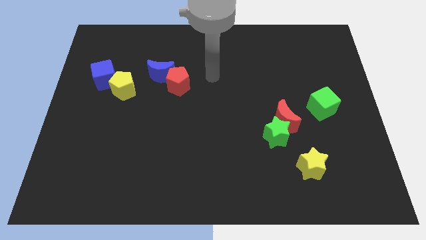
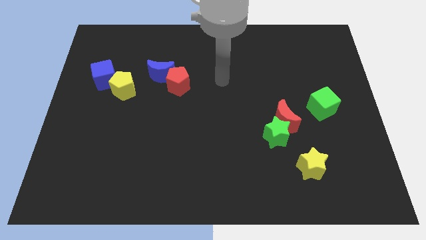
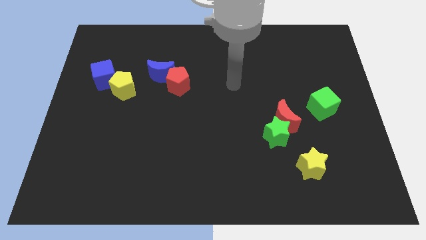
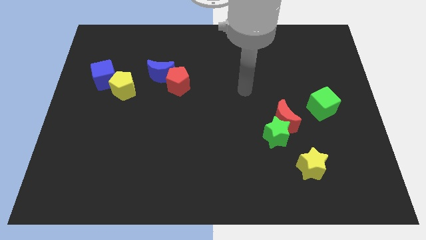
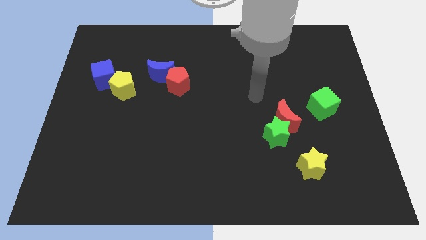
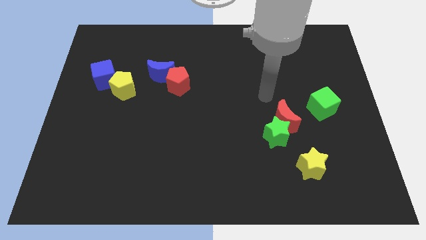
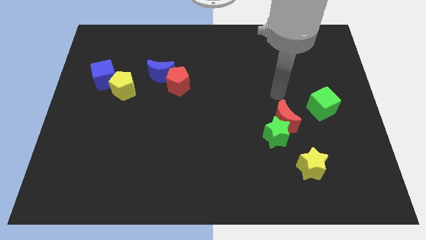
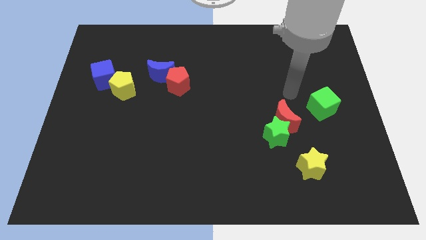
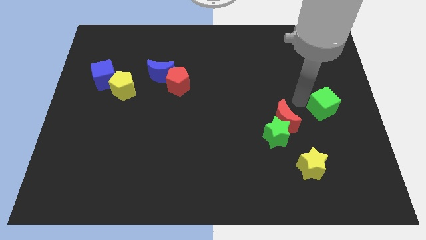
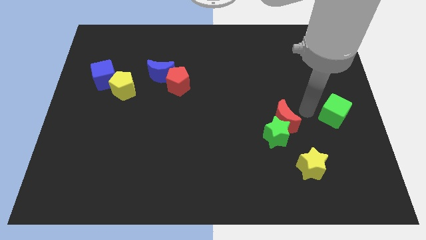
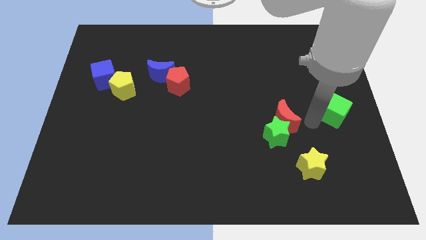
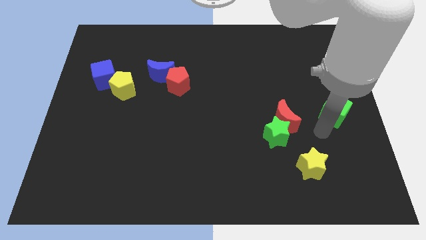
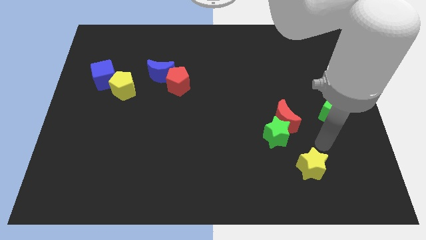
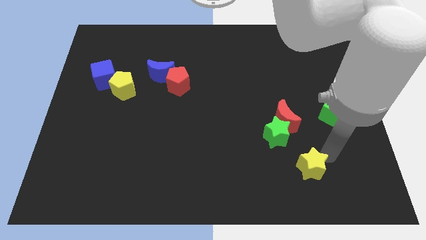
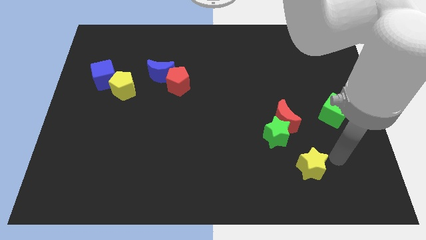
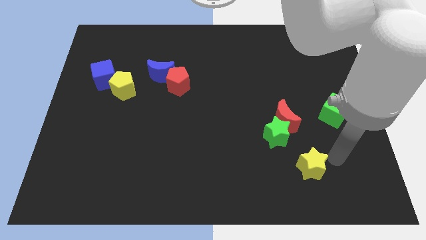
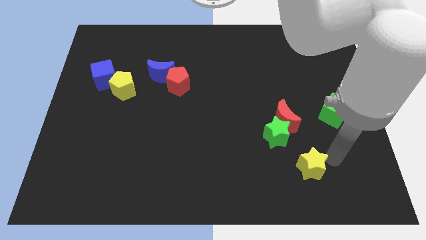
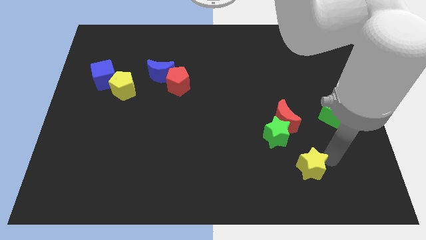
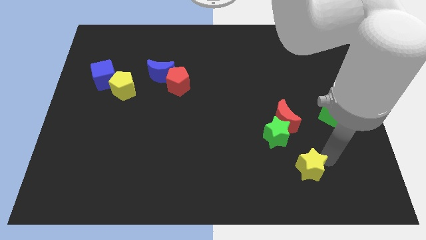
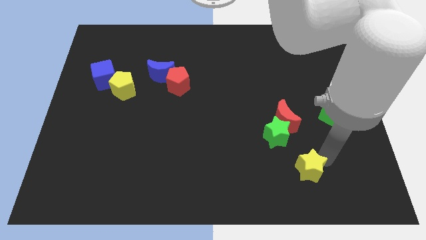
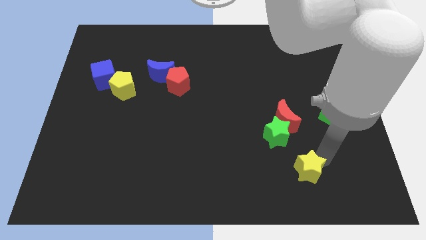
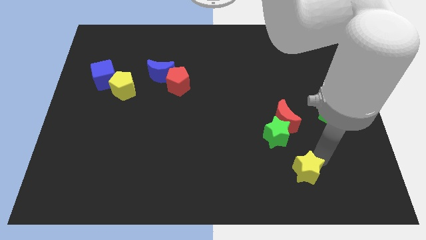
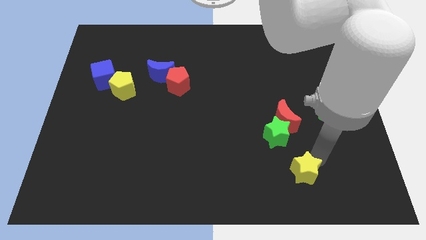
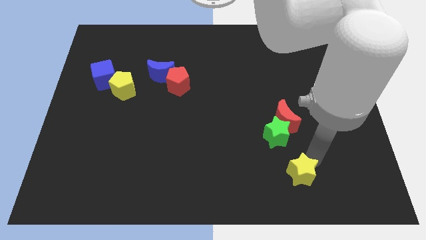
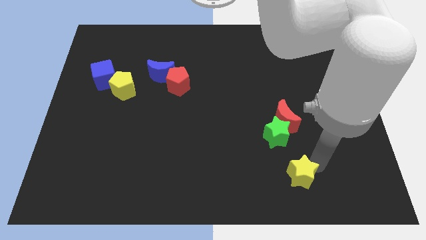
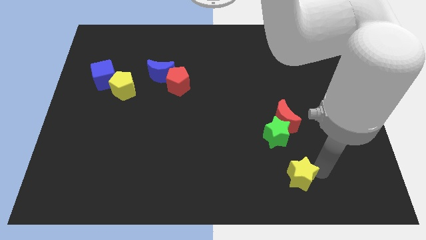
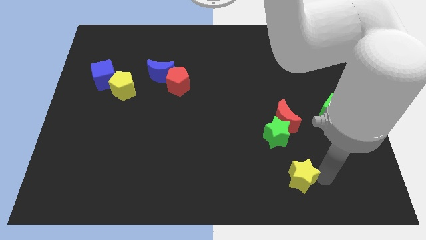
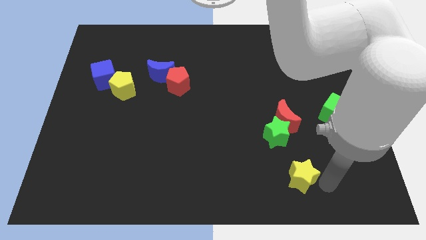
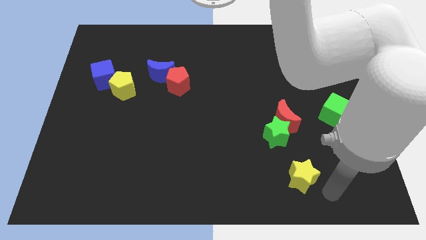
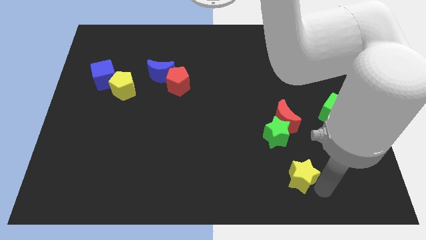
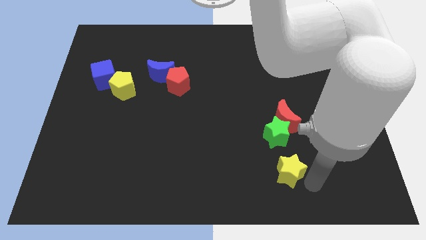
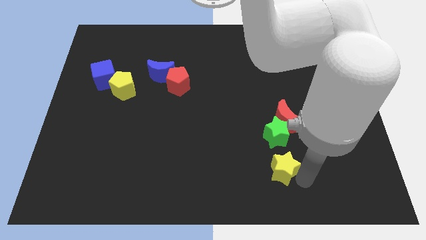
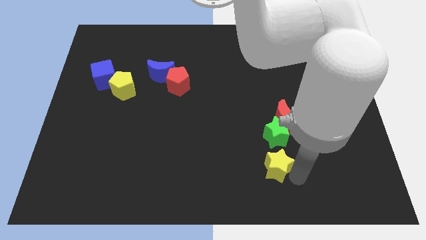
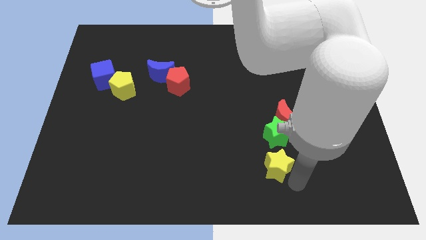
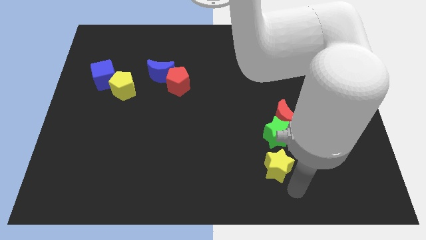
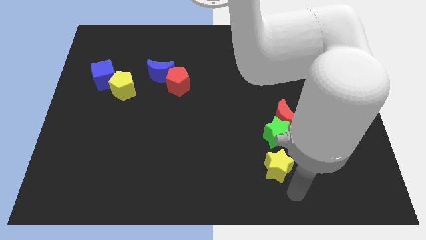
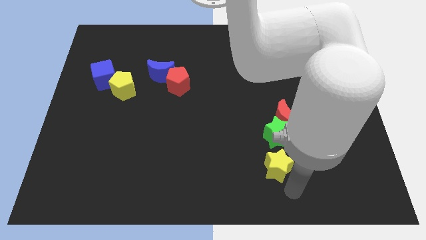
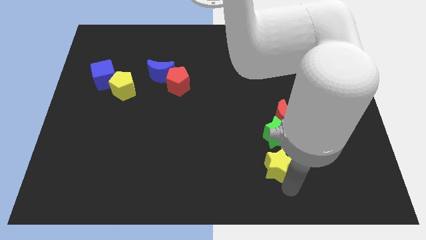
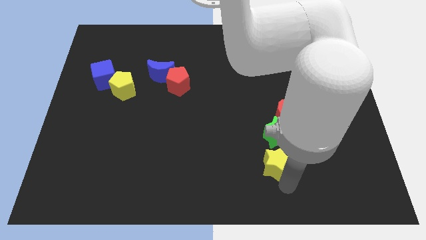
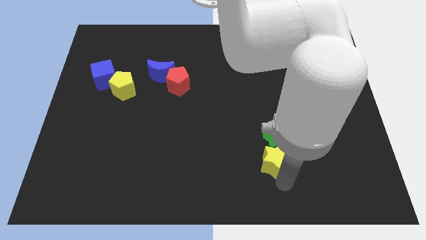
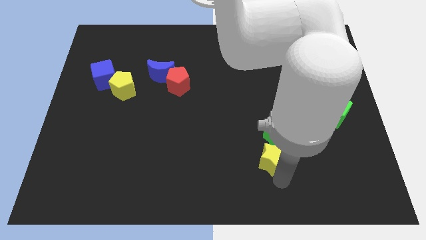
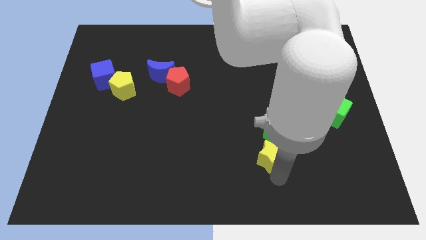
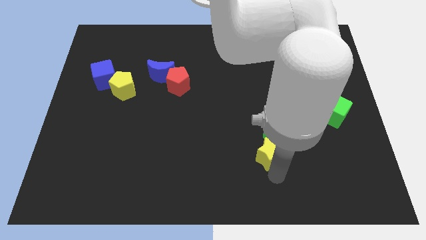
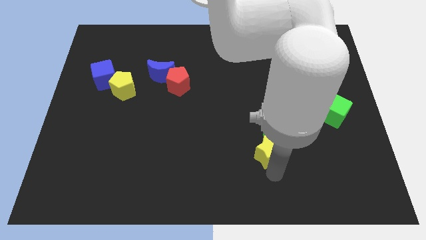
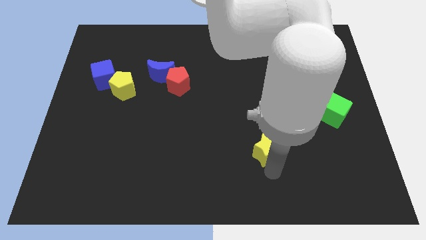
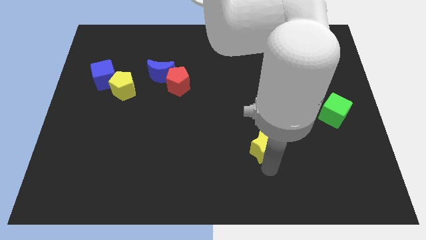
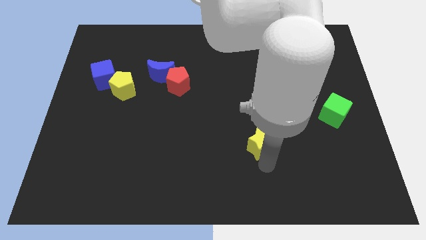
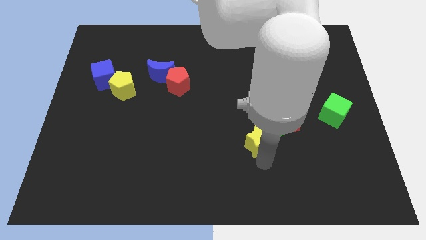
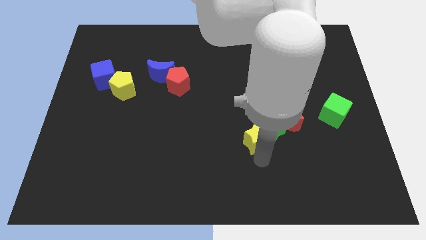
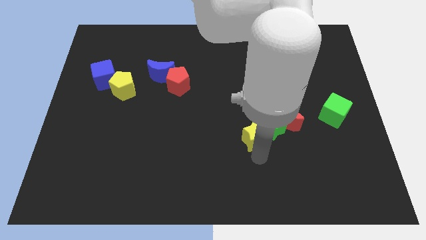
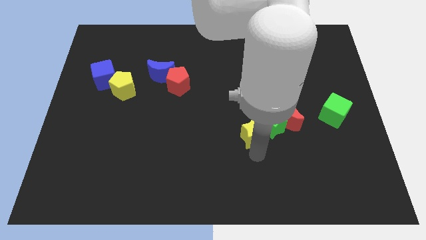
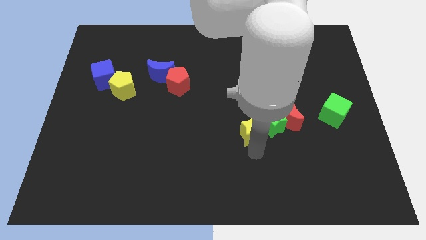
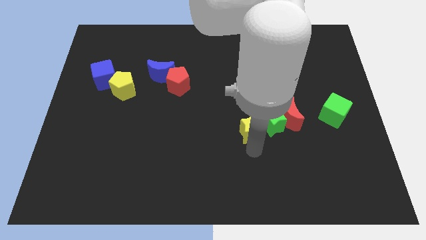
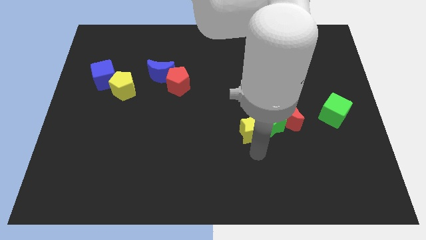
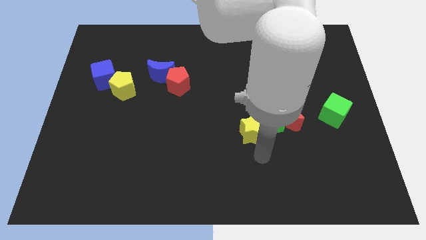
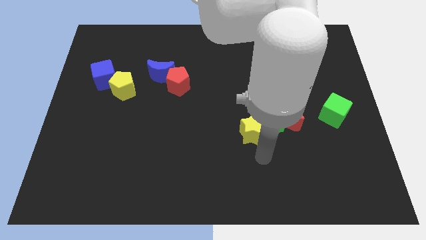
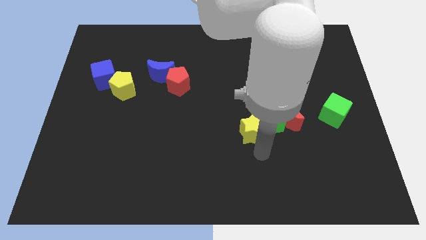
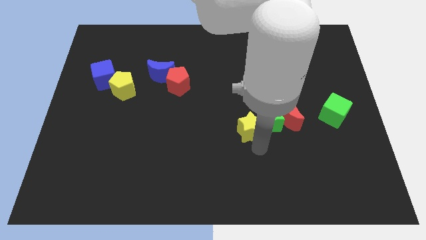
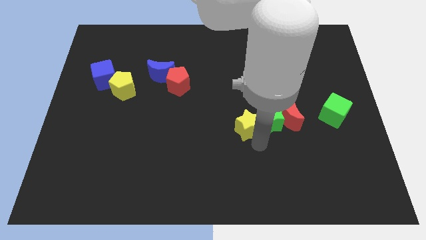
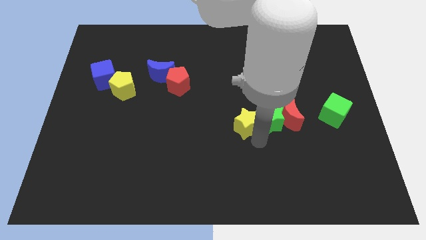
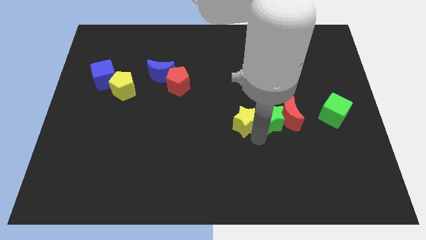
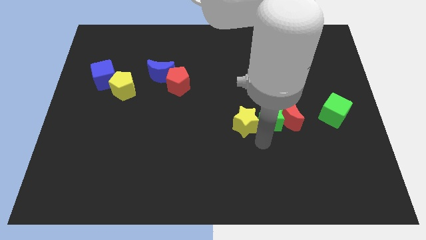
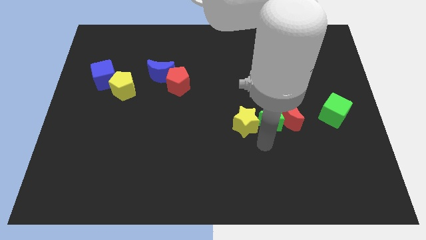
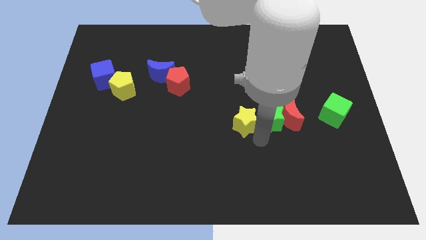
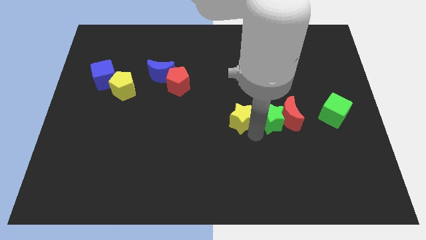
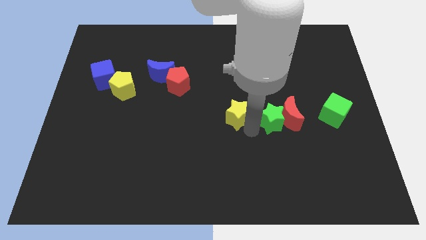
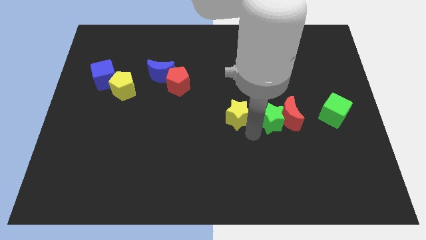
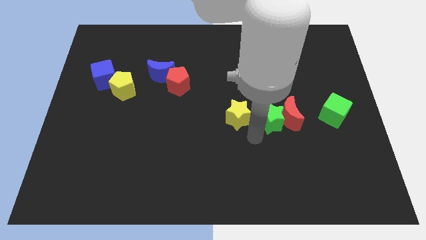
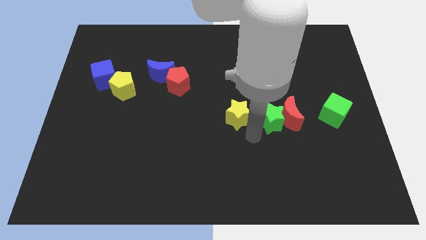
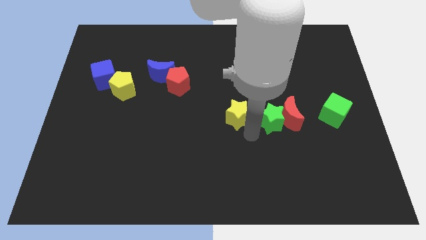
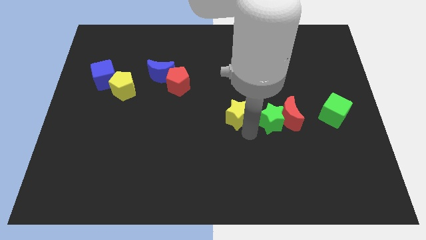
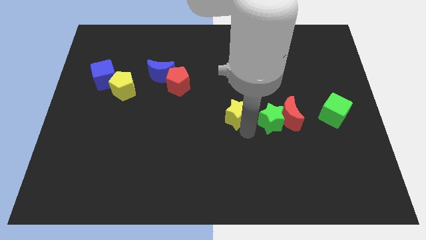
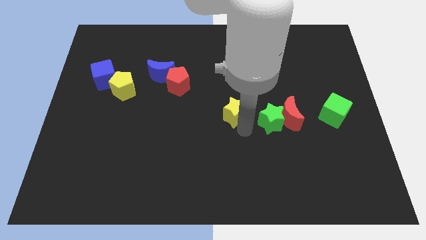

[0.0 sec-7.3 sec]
slide the yellow star upwards and to the left

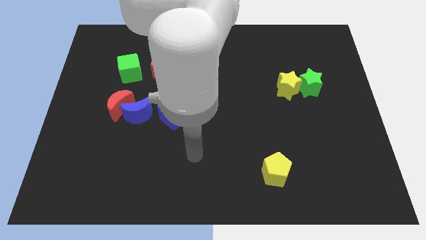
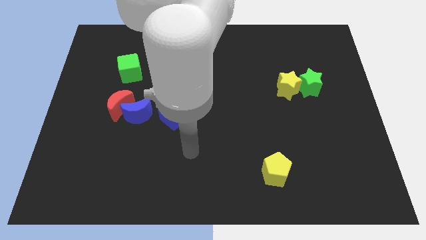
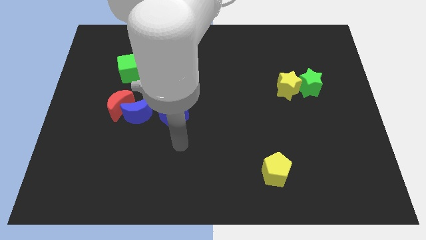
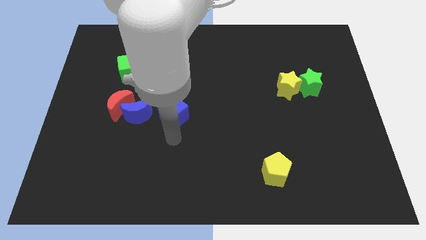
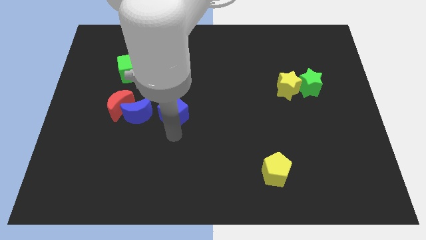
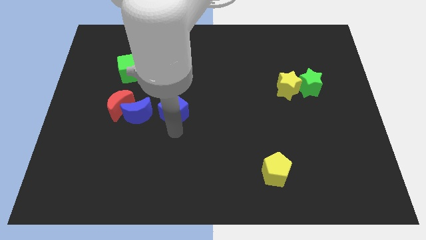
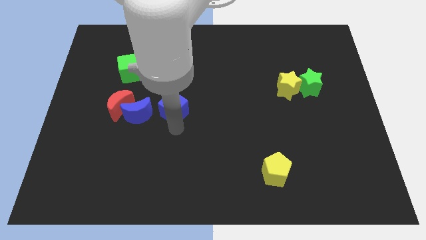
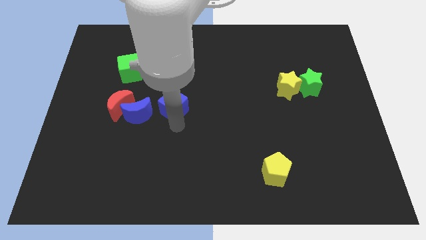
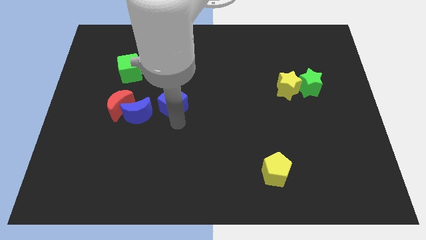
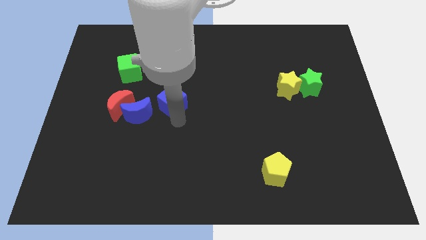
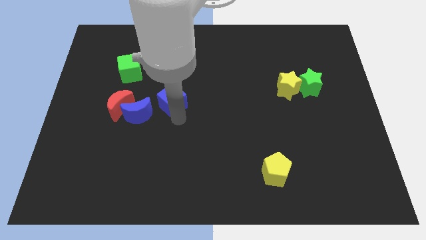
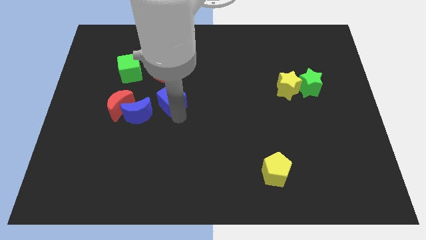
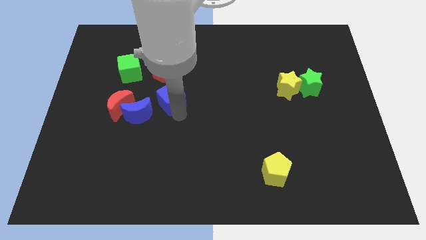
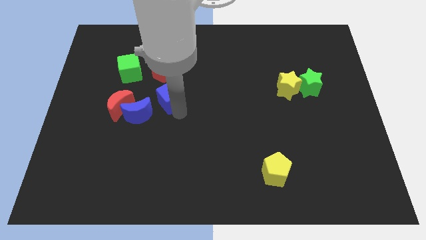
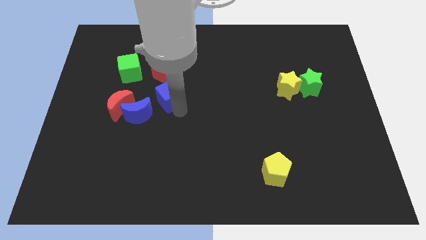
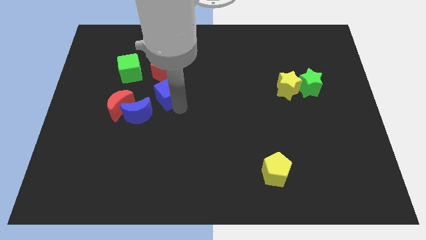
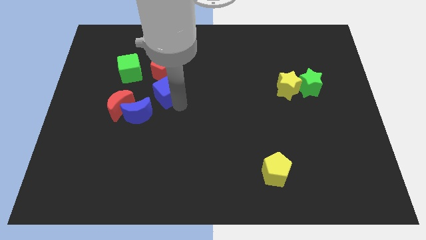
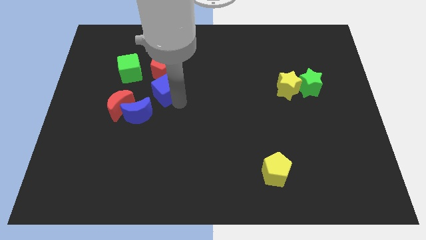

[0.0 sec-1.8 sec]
slightly push the blue cube upwards
